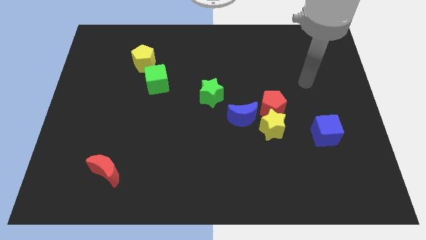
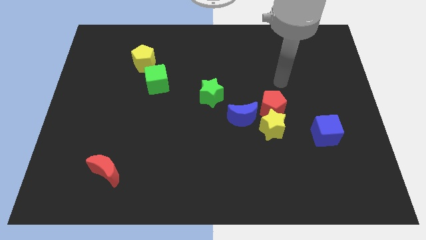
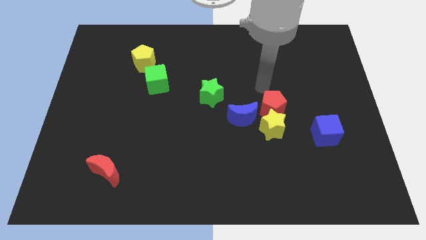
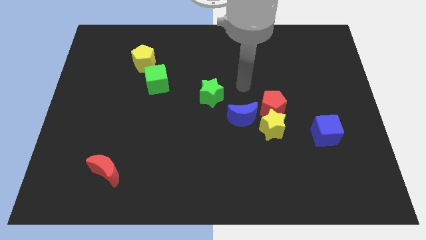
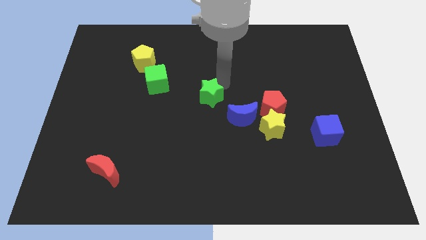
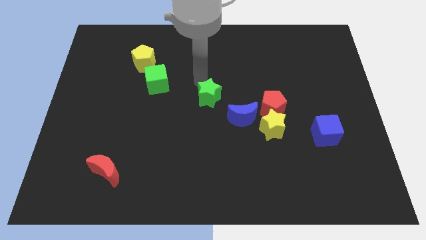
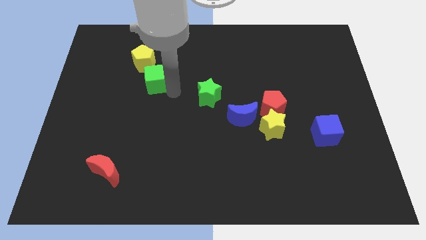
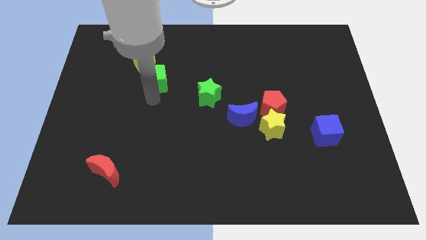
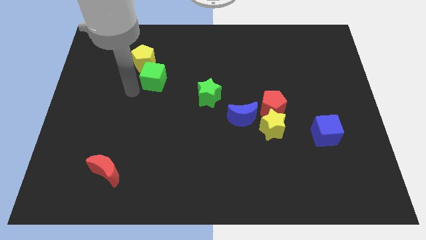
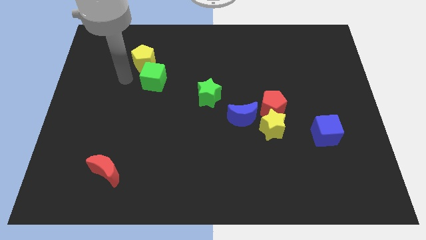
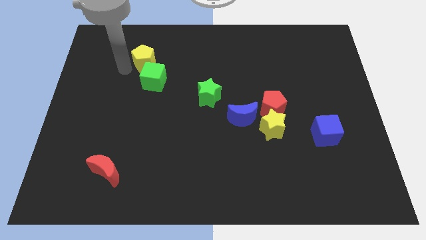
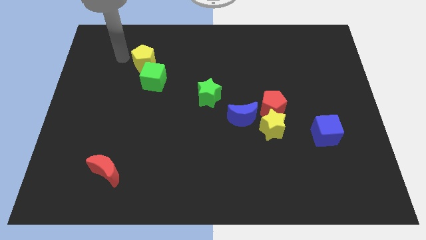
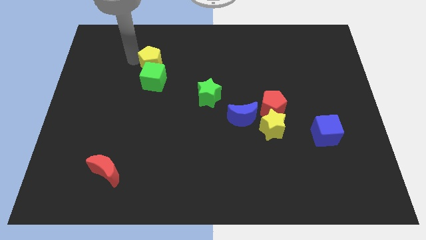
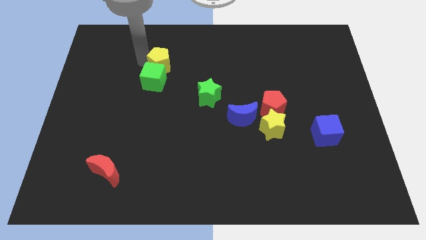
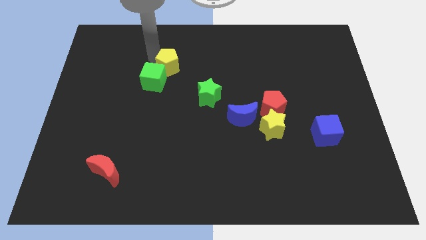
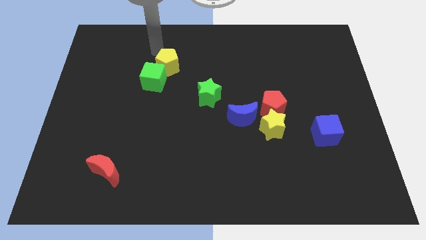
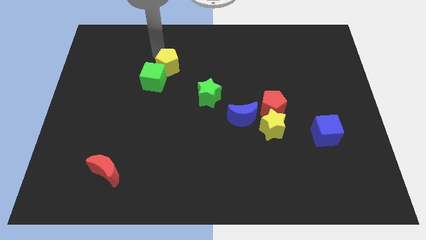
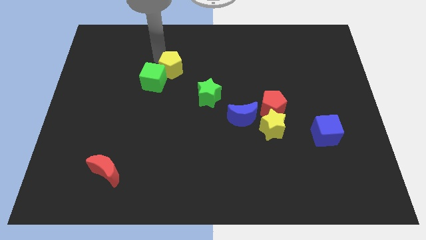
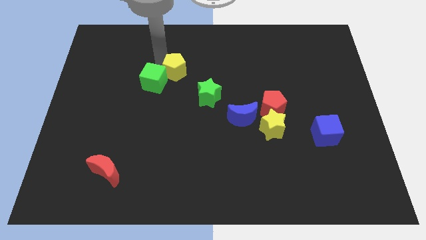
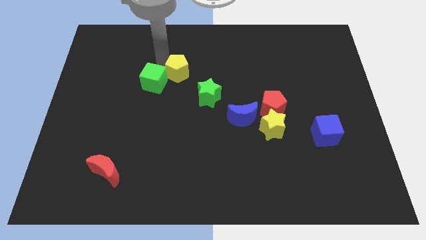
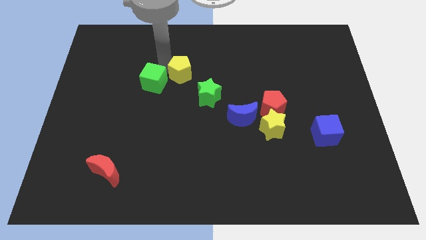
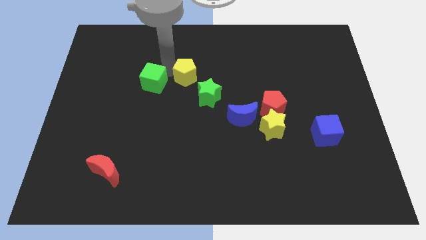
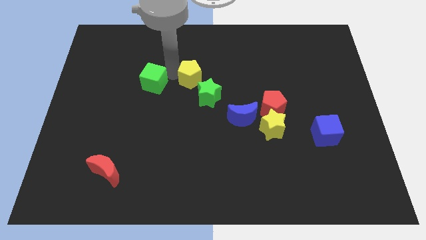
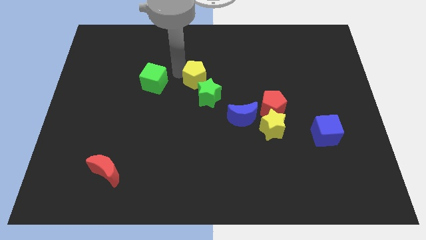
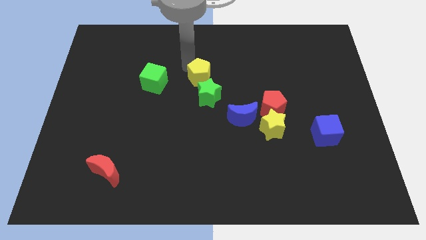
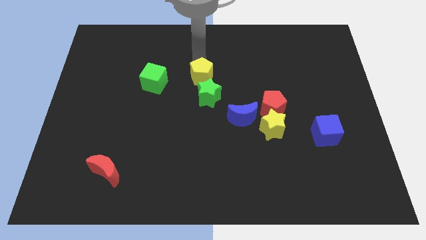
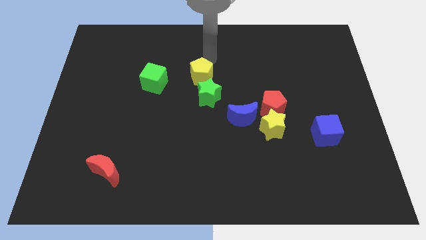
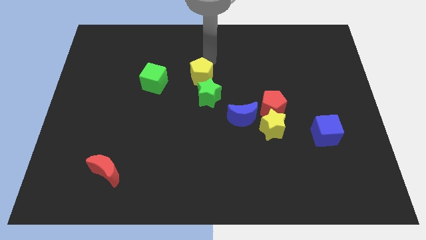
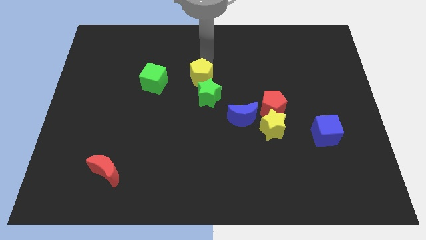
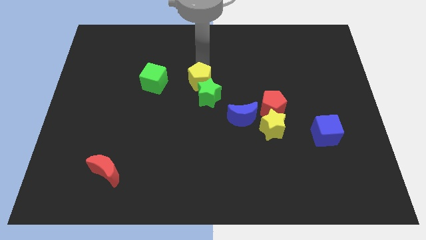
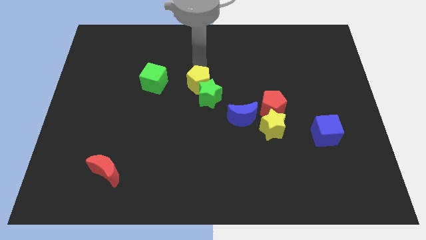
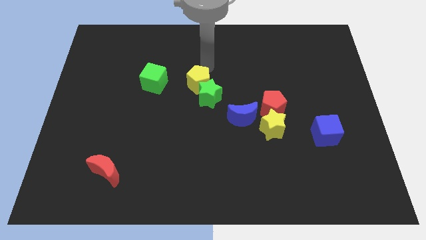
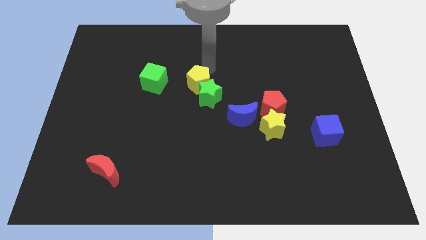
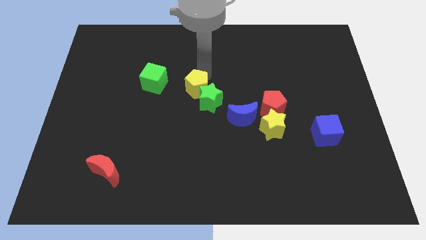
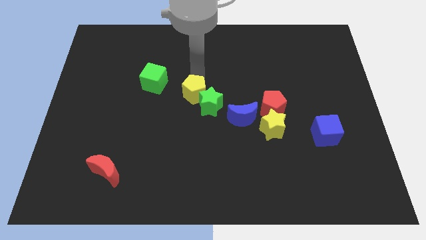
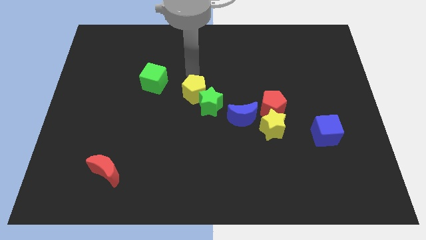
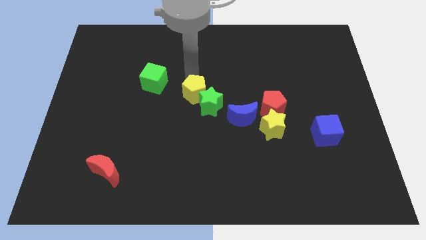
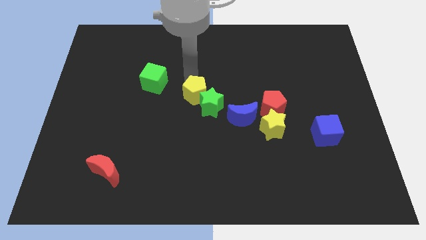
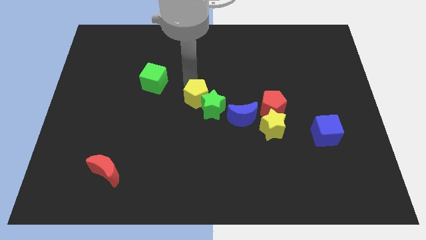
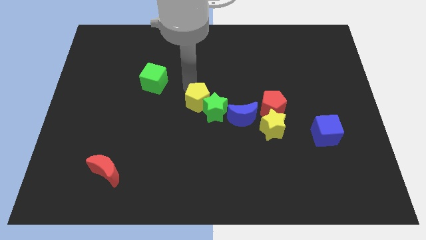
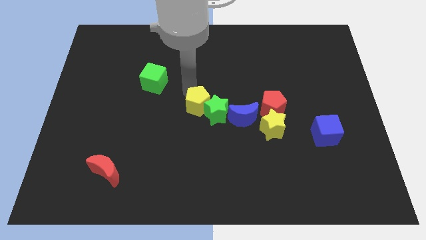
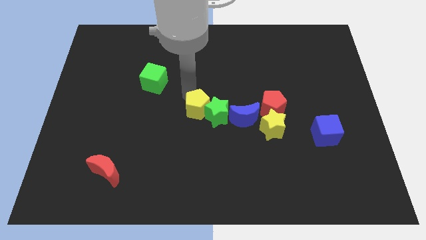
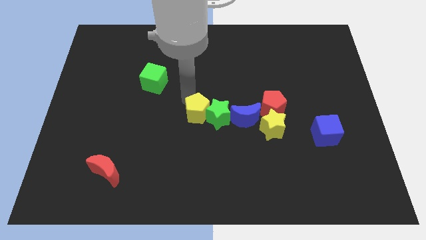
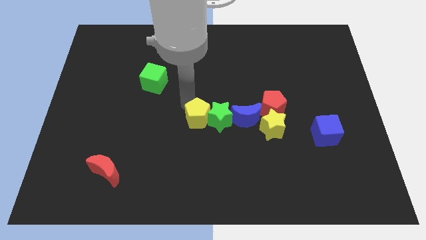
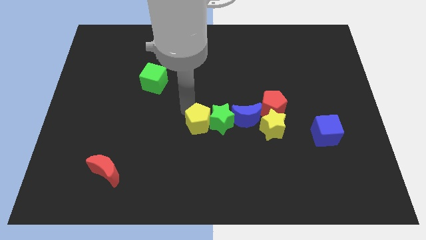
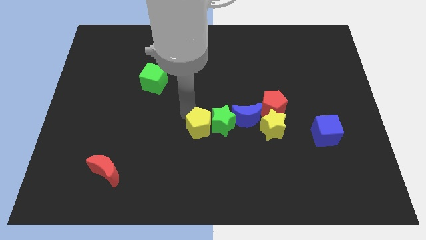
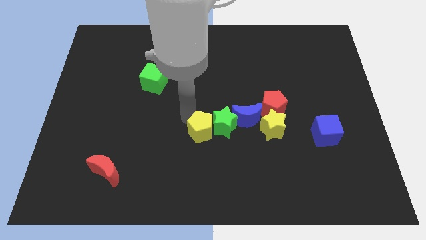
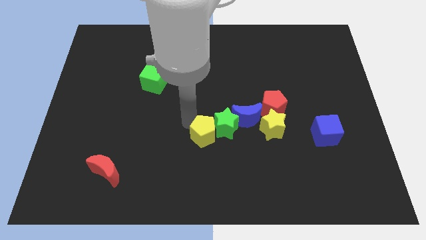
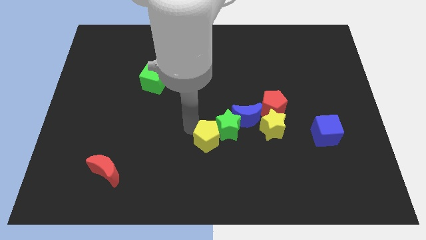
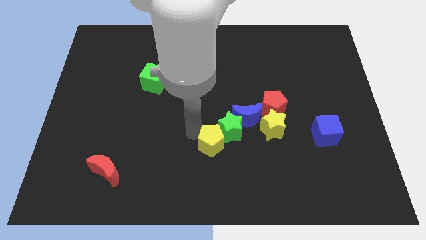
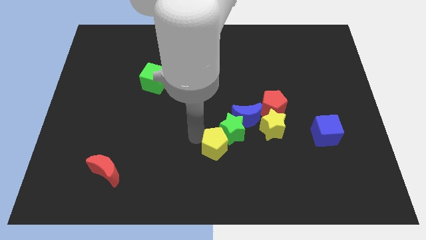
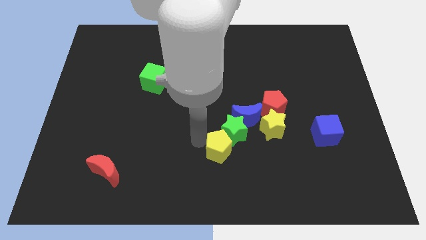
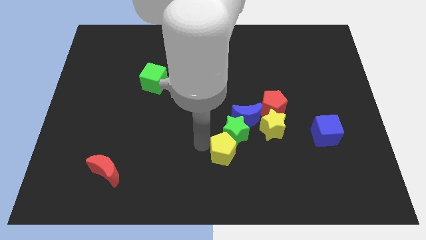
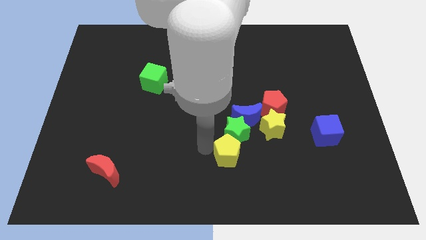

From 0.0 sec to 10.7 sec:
push the yellow pentagon diagonally down and to the left of the yellow star
